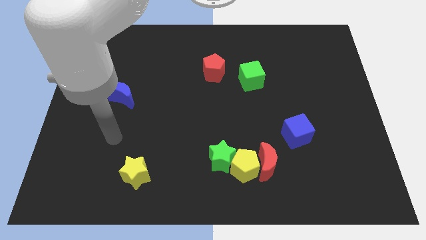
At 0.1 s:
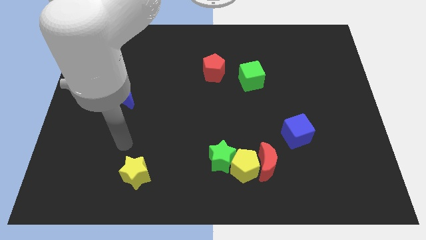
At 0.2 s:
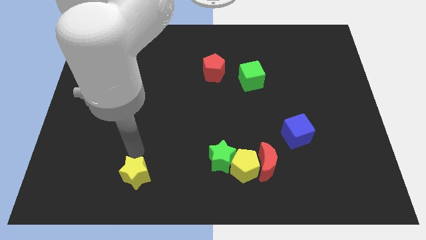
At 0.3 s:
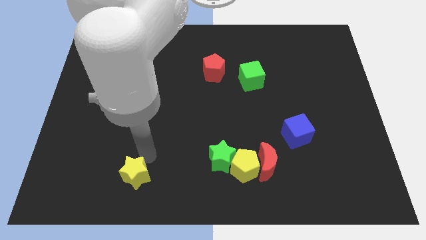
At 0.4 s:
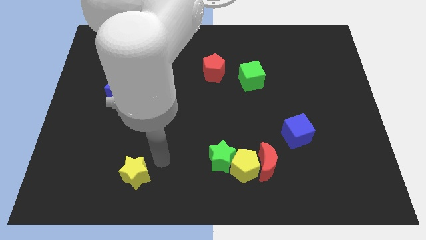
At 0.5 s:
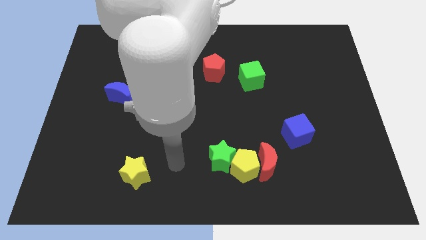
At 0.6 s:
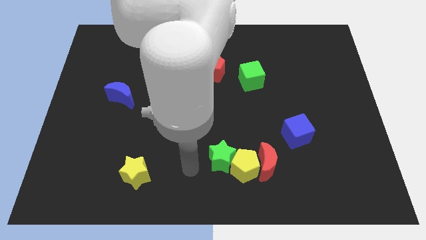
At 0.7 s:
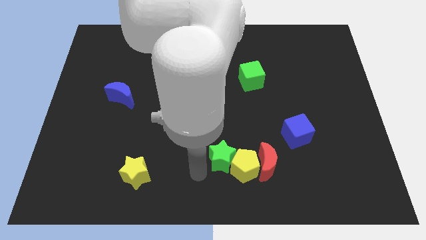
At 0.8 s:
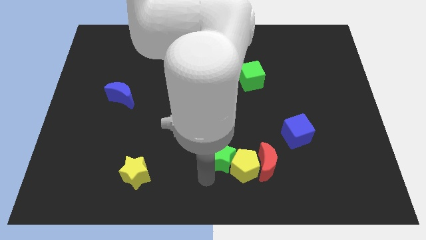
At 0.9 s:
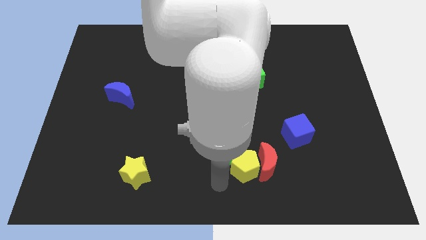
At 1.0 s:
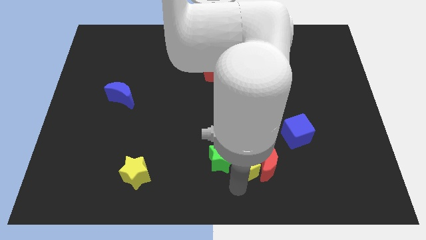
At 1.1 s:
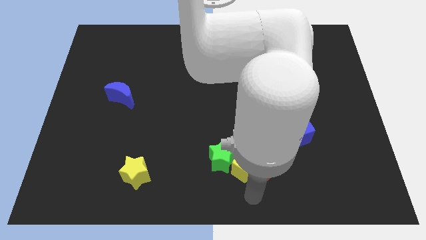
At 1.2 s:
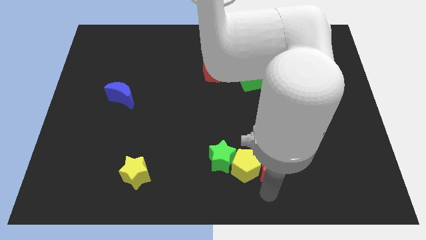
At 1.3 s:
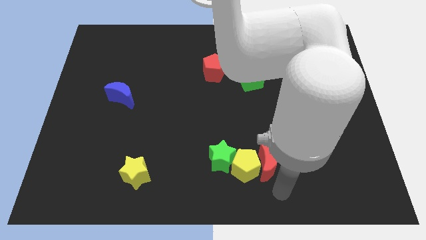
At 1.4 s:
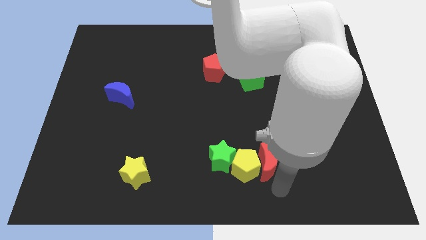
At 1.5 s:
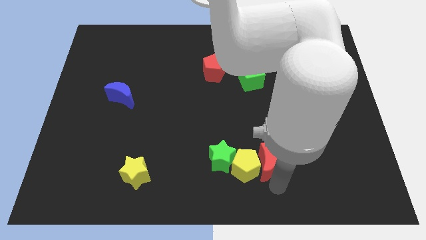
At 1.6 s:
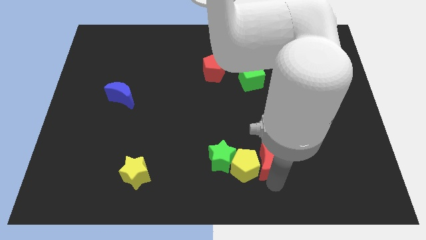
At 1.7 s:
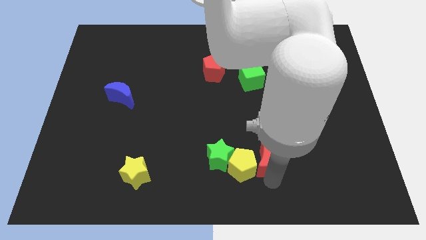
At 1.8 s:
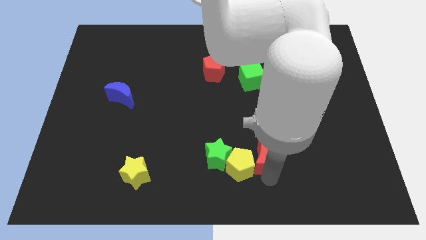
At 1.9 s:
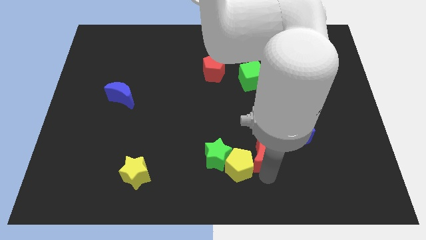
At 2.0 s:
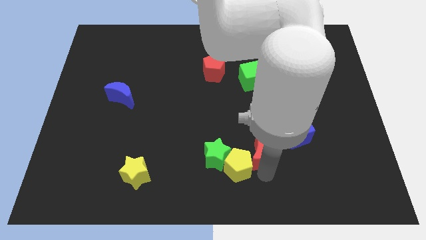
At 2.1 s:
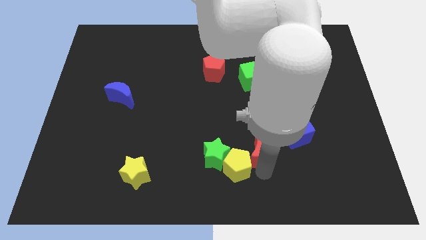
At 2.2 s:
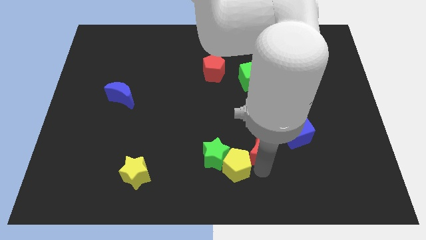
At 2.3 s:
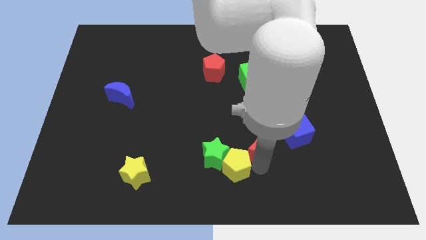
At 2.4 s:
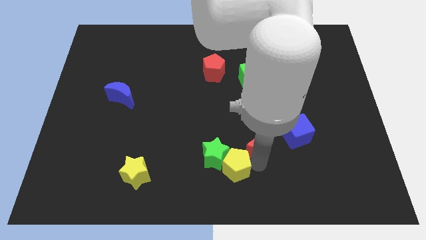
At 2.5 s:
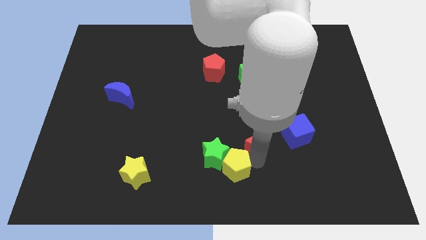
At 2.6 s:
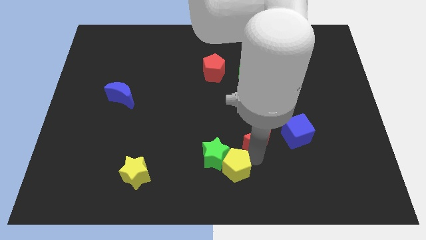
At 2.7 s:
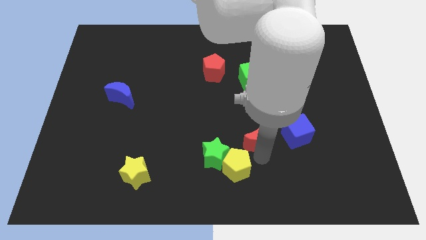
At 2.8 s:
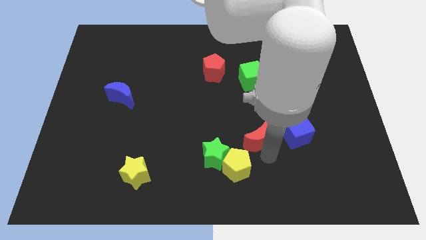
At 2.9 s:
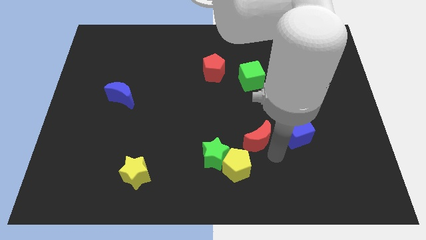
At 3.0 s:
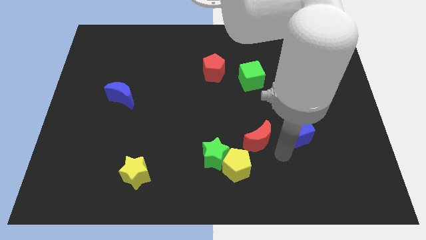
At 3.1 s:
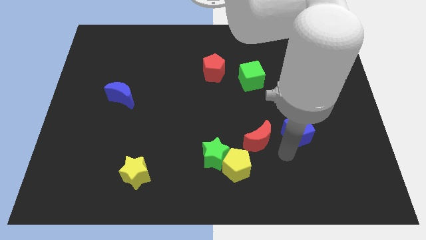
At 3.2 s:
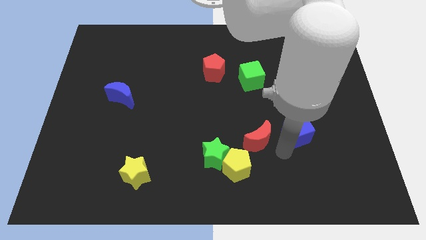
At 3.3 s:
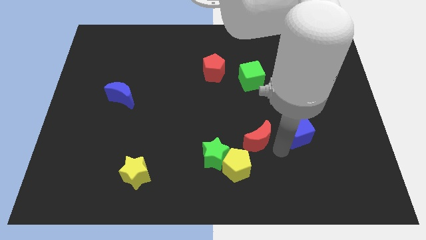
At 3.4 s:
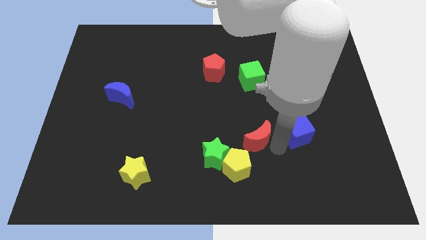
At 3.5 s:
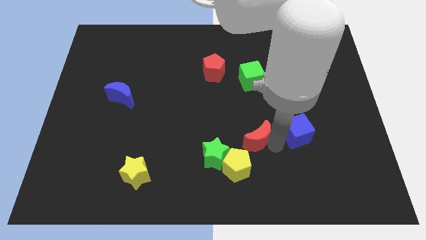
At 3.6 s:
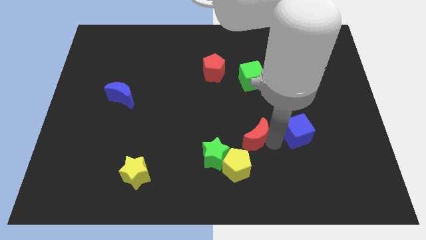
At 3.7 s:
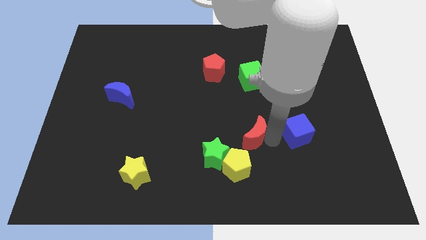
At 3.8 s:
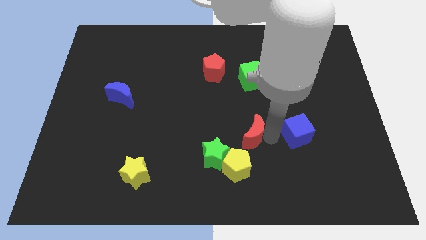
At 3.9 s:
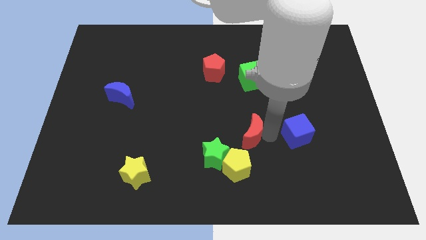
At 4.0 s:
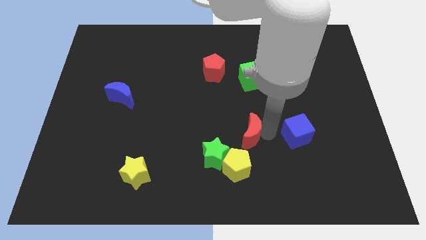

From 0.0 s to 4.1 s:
move the red moon upwards and to the left diagonally slightly

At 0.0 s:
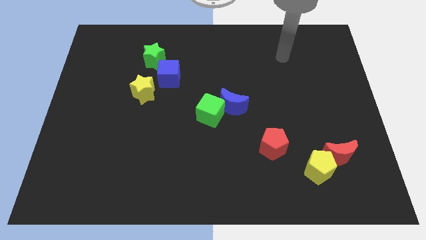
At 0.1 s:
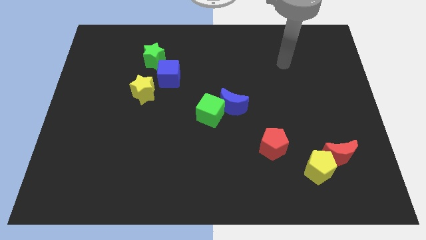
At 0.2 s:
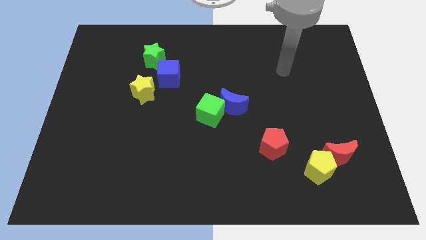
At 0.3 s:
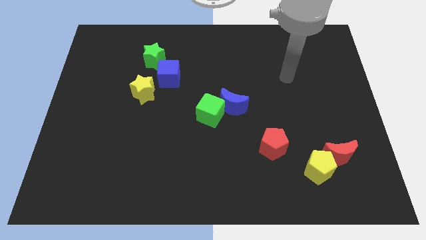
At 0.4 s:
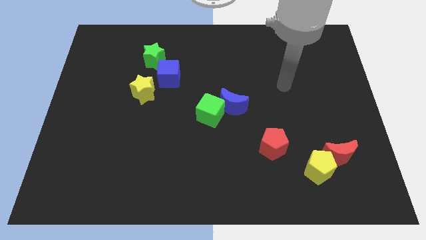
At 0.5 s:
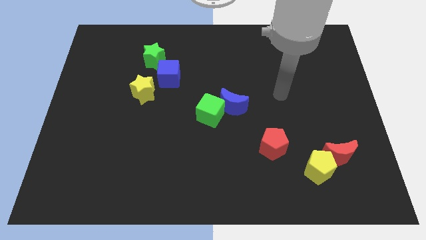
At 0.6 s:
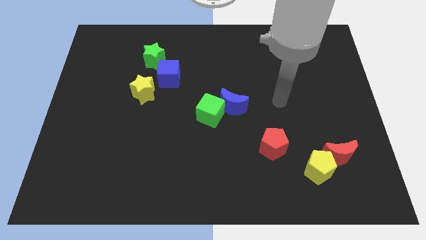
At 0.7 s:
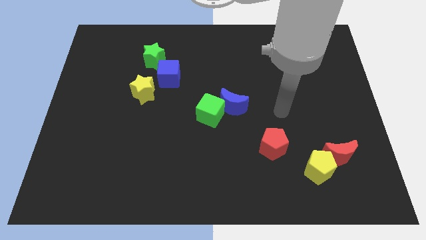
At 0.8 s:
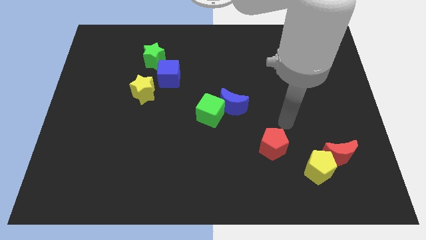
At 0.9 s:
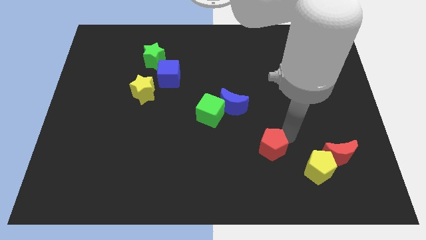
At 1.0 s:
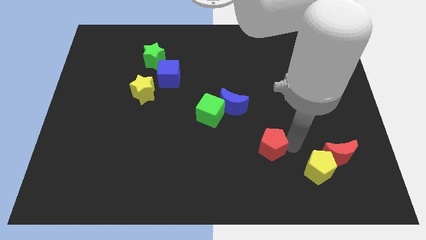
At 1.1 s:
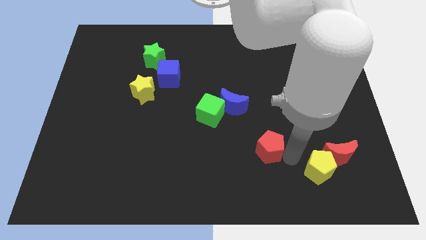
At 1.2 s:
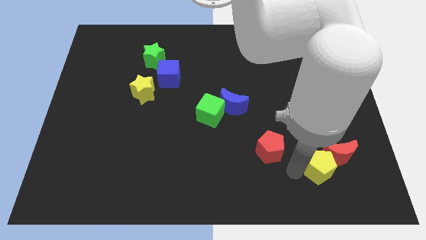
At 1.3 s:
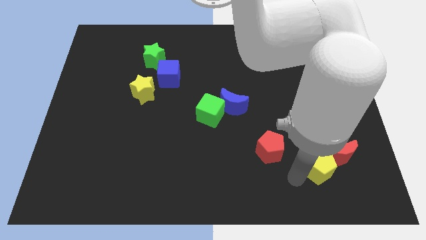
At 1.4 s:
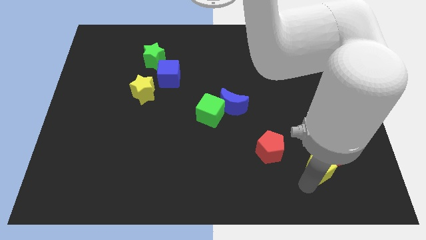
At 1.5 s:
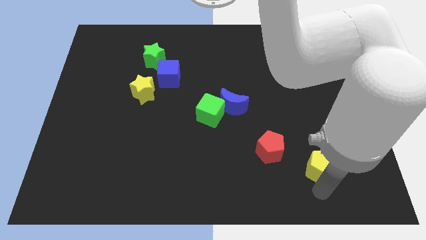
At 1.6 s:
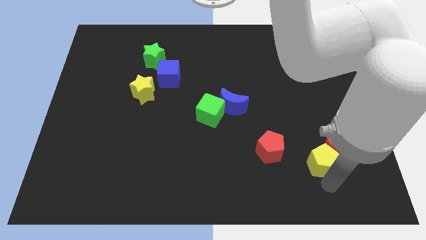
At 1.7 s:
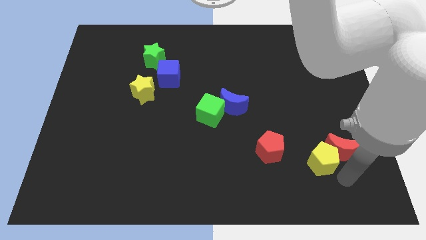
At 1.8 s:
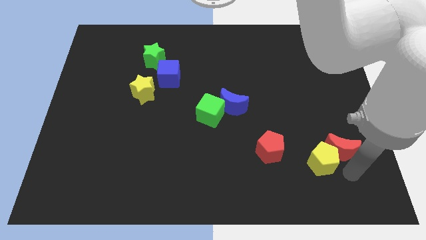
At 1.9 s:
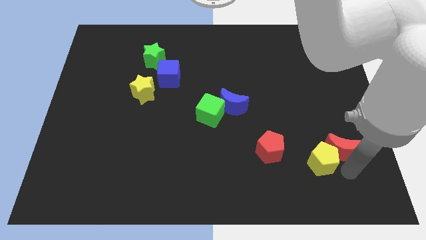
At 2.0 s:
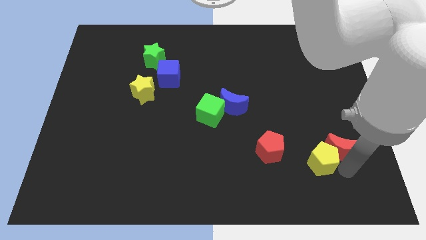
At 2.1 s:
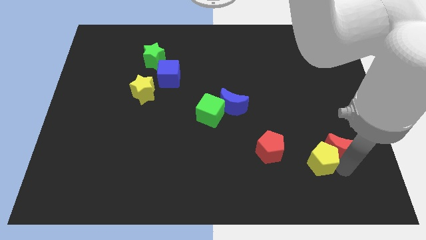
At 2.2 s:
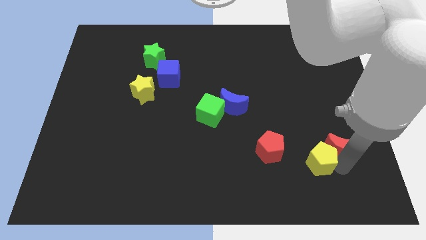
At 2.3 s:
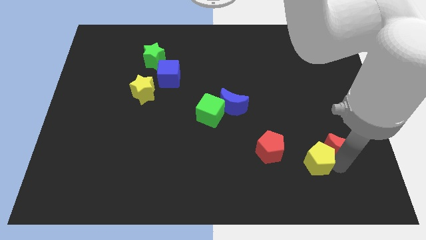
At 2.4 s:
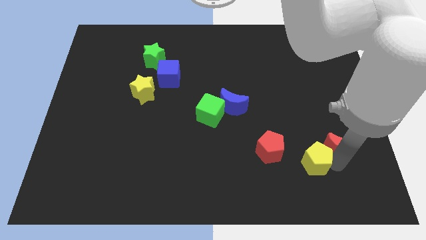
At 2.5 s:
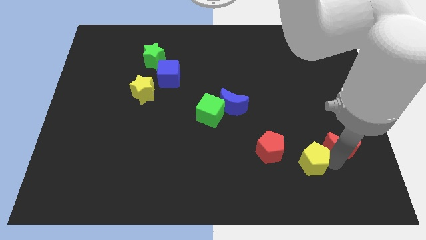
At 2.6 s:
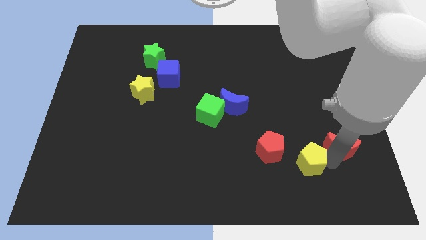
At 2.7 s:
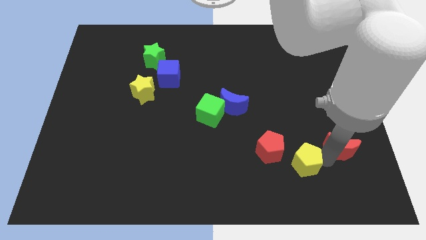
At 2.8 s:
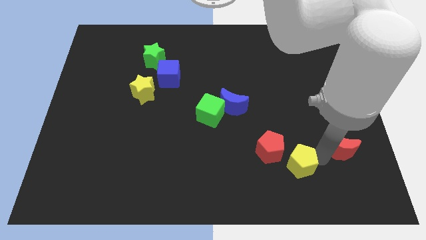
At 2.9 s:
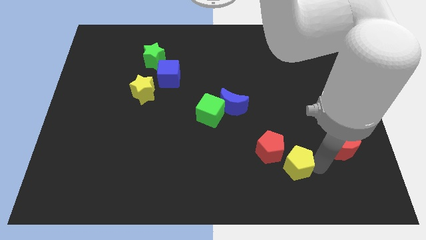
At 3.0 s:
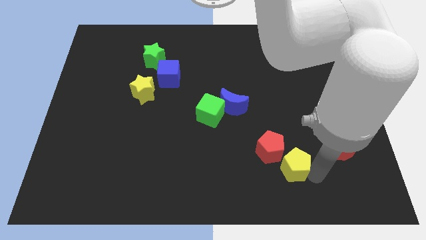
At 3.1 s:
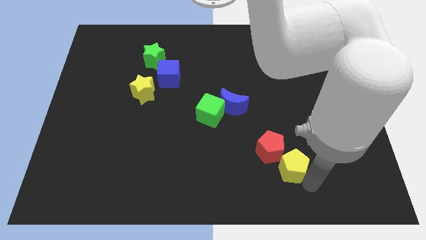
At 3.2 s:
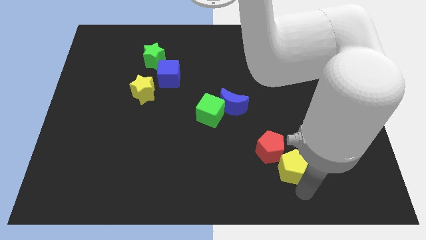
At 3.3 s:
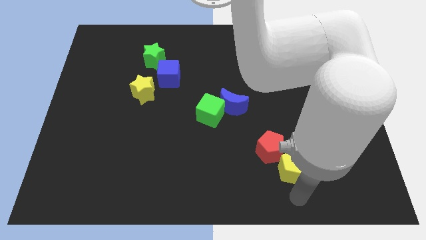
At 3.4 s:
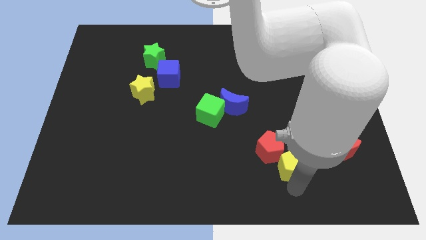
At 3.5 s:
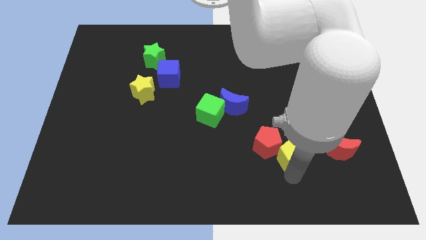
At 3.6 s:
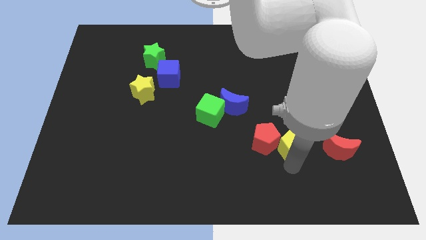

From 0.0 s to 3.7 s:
push the yellow pentagon upwards and left a little

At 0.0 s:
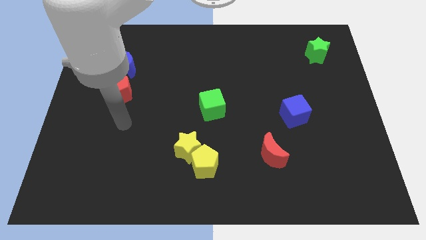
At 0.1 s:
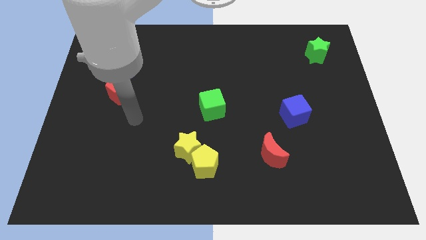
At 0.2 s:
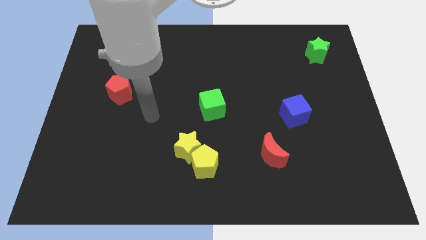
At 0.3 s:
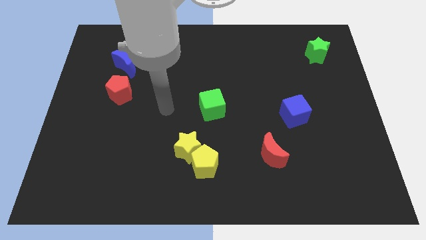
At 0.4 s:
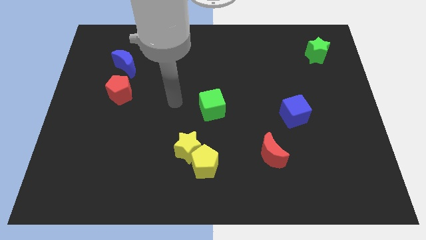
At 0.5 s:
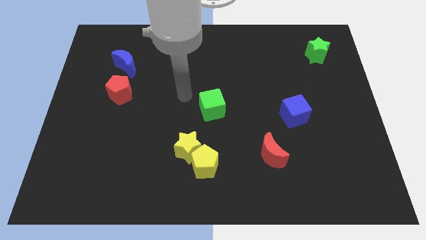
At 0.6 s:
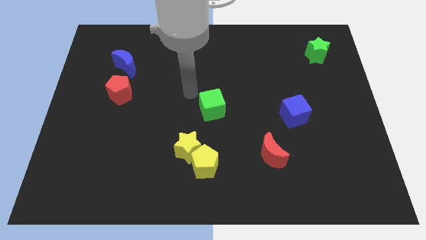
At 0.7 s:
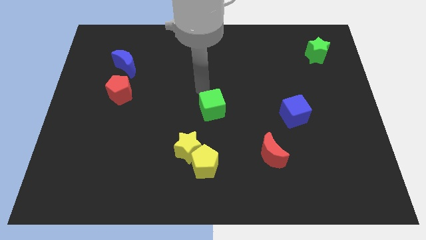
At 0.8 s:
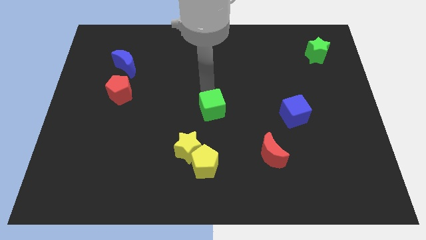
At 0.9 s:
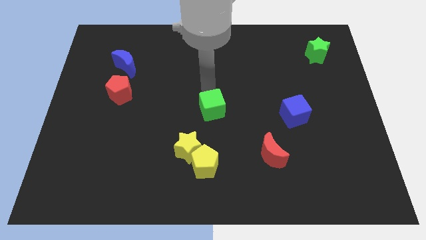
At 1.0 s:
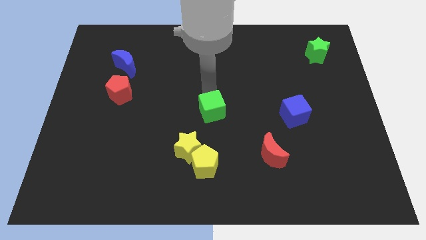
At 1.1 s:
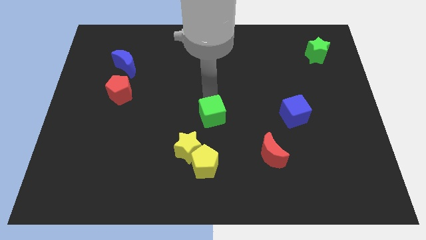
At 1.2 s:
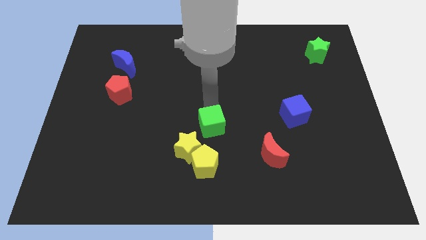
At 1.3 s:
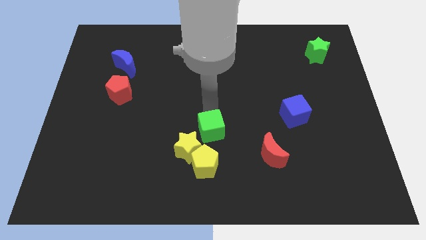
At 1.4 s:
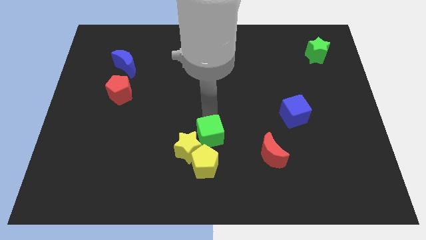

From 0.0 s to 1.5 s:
push the green cube a little bit downwards
